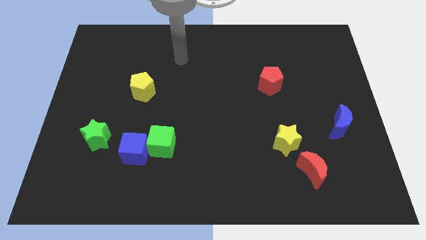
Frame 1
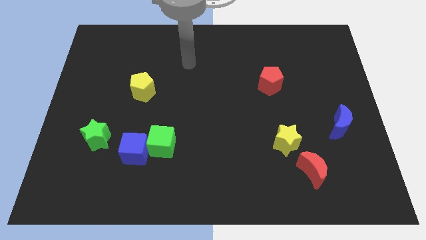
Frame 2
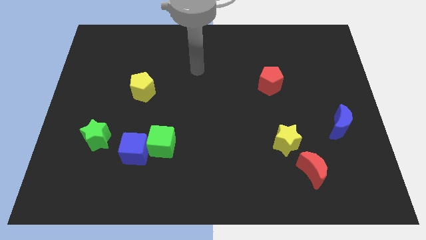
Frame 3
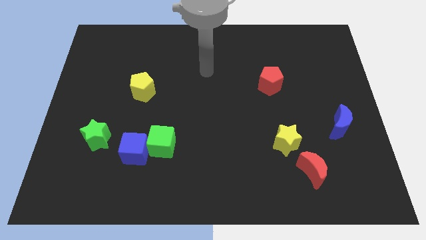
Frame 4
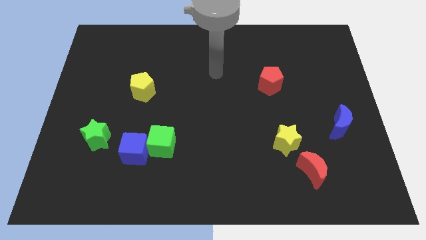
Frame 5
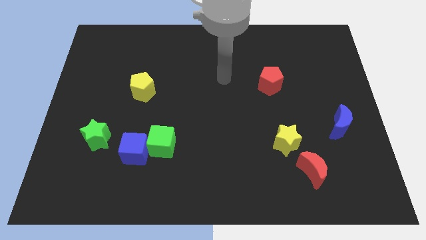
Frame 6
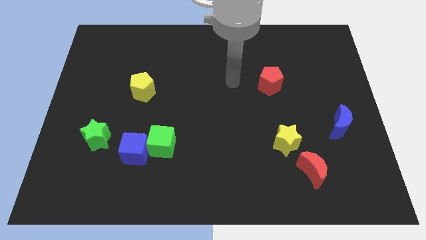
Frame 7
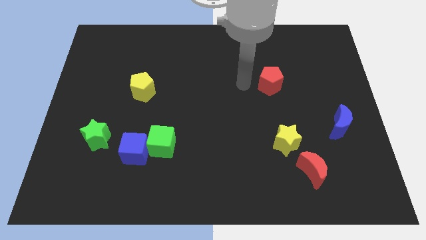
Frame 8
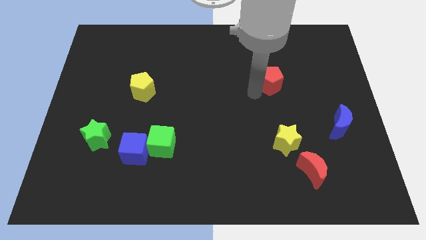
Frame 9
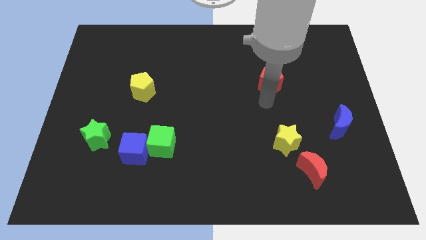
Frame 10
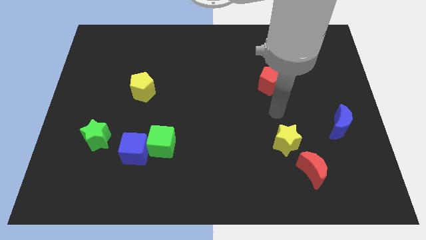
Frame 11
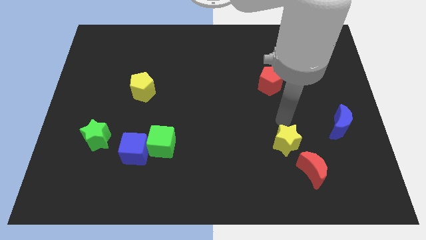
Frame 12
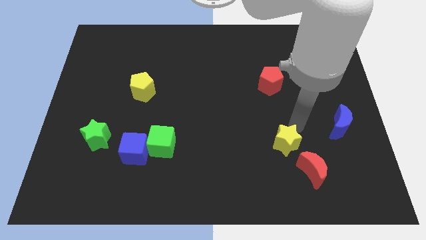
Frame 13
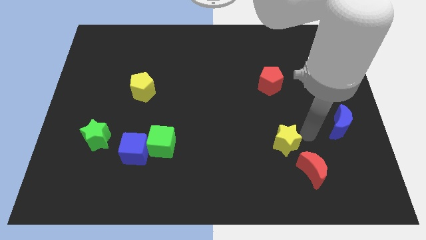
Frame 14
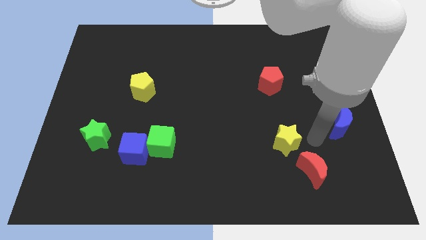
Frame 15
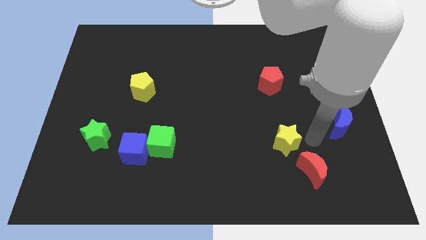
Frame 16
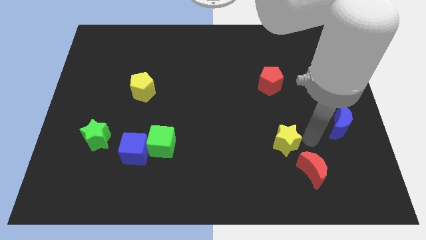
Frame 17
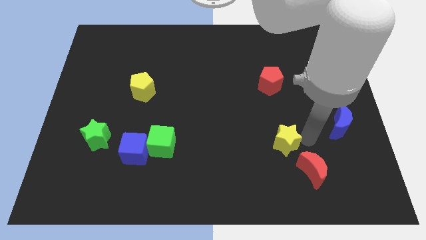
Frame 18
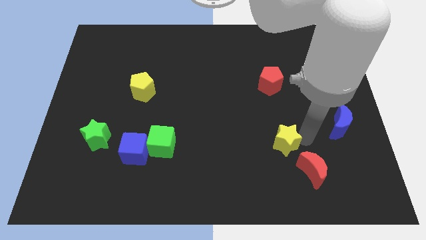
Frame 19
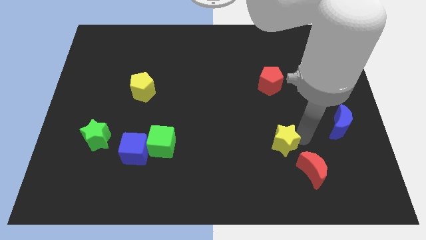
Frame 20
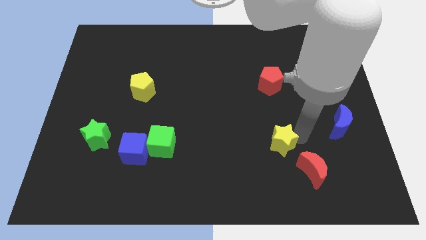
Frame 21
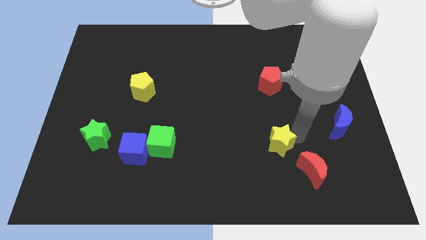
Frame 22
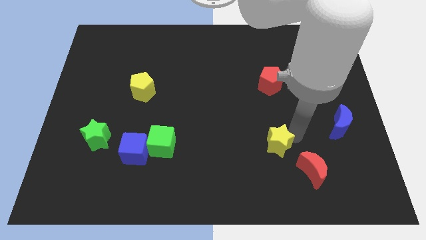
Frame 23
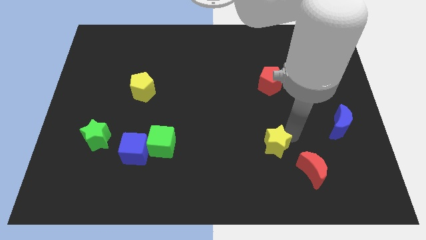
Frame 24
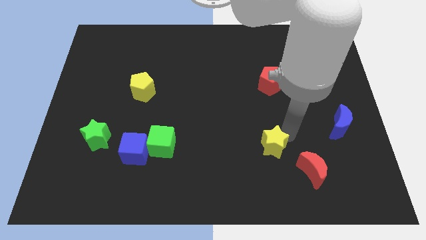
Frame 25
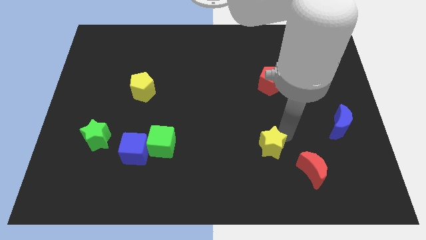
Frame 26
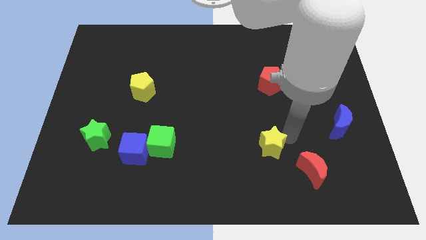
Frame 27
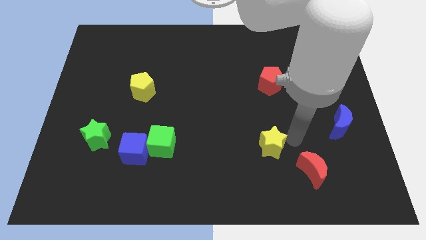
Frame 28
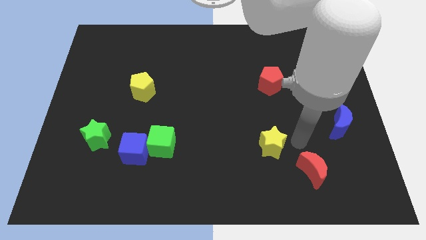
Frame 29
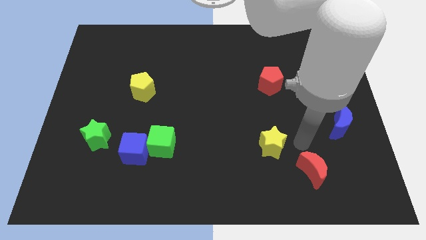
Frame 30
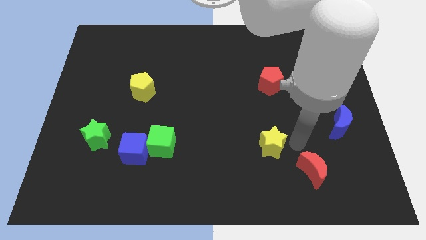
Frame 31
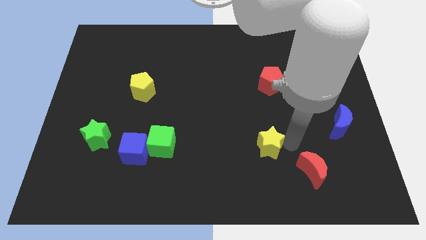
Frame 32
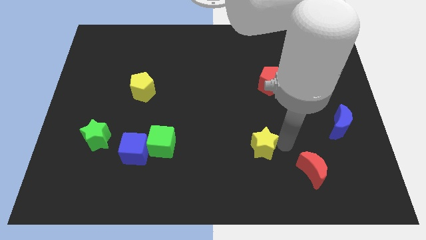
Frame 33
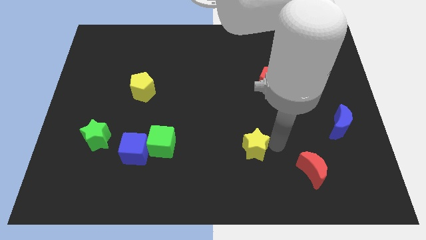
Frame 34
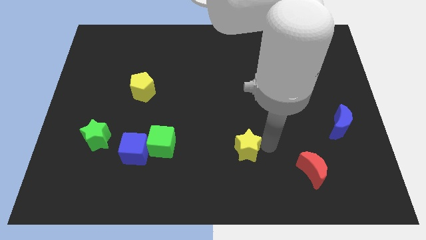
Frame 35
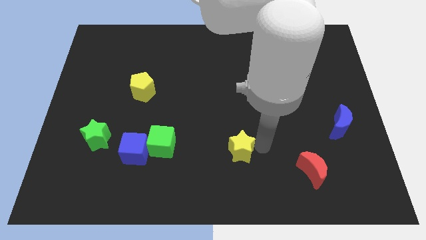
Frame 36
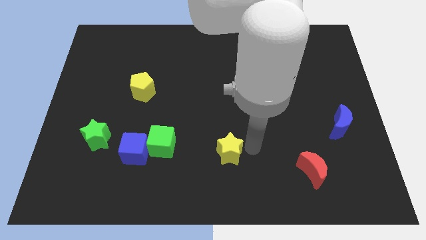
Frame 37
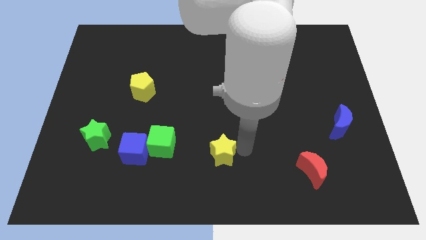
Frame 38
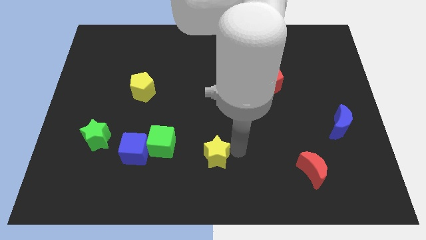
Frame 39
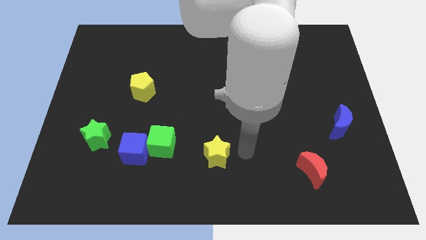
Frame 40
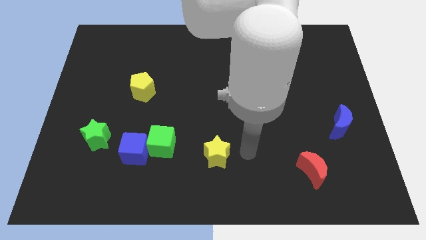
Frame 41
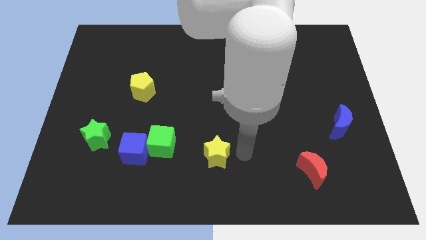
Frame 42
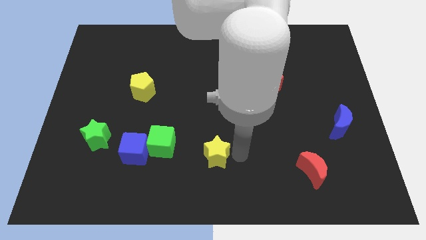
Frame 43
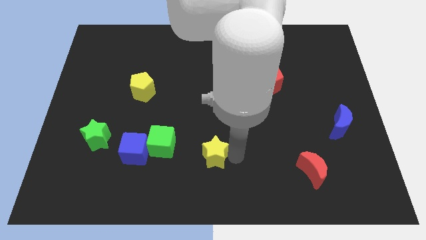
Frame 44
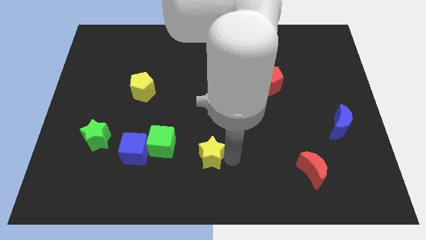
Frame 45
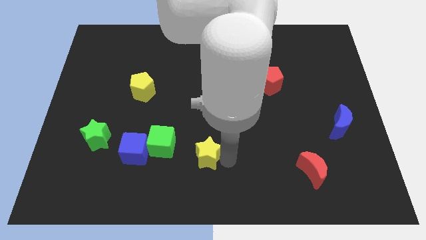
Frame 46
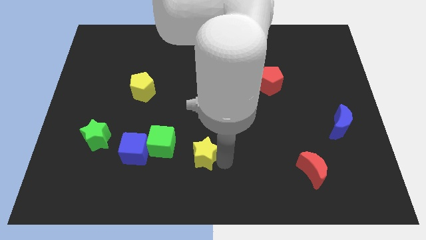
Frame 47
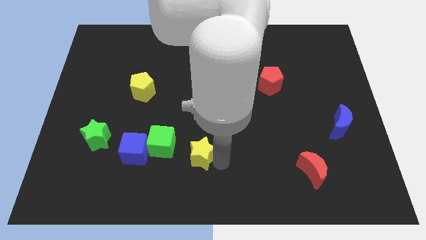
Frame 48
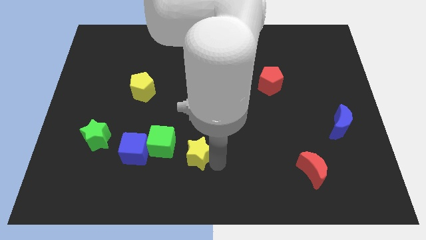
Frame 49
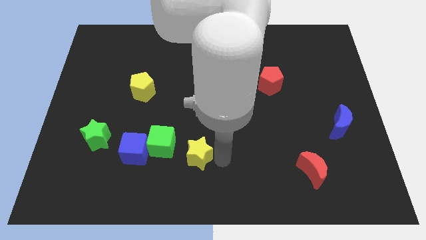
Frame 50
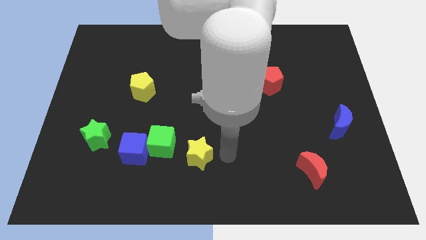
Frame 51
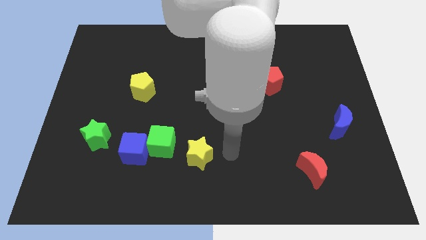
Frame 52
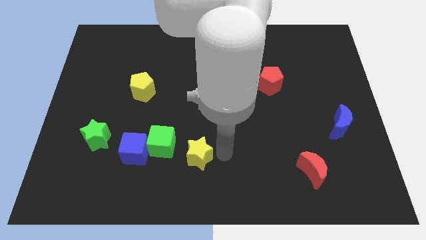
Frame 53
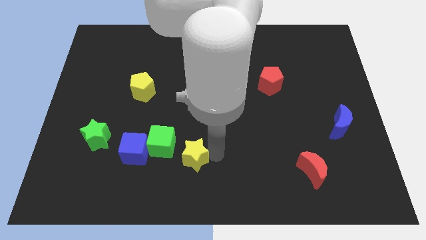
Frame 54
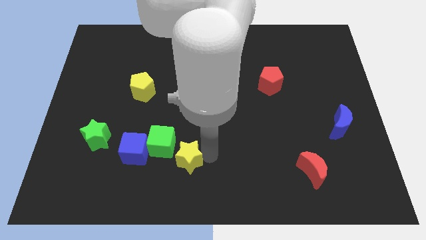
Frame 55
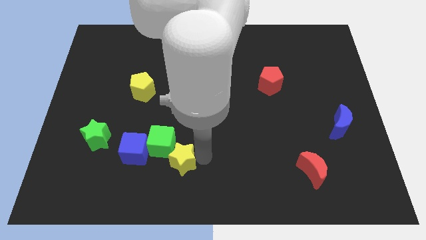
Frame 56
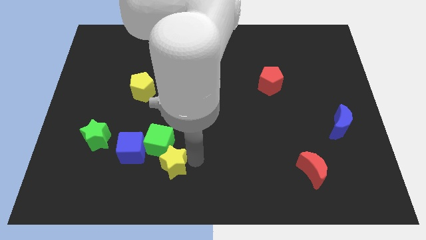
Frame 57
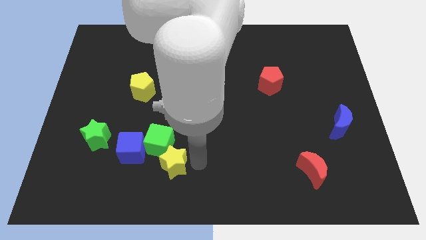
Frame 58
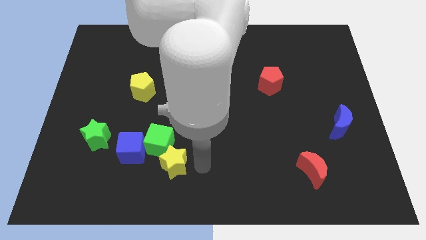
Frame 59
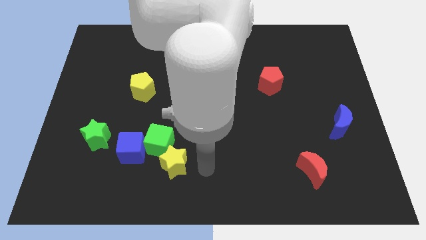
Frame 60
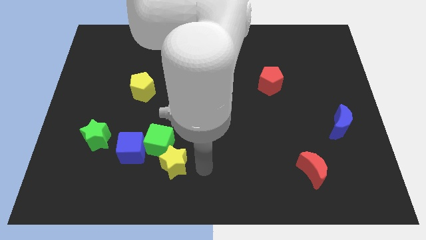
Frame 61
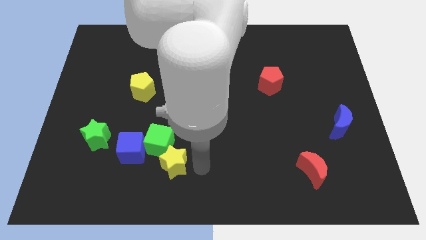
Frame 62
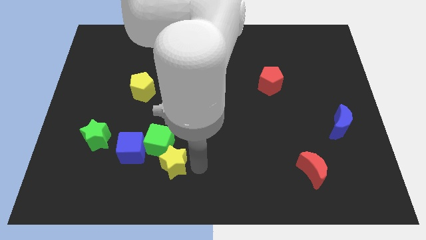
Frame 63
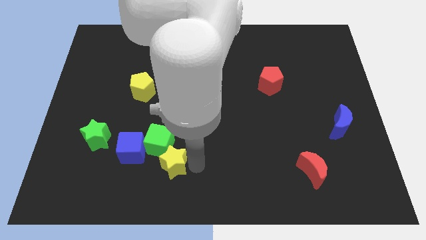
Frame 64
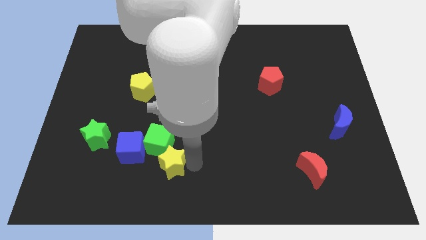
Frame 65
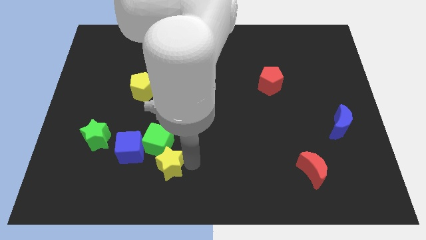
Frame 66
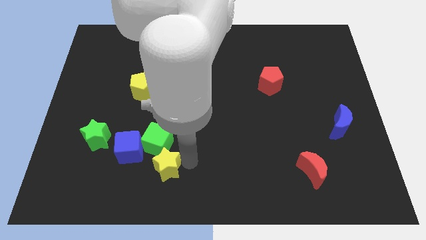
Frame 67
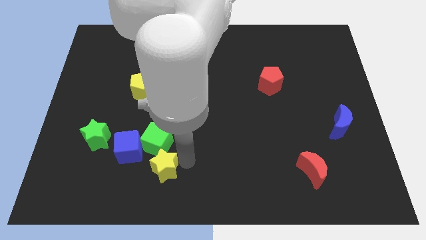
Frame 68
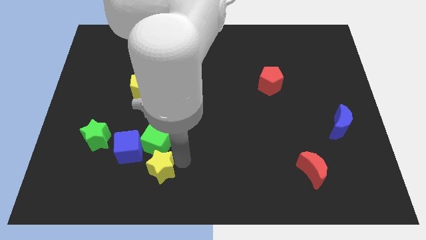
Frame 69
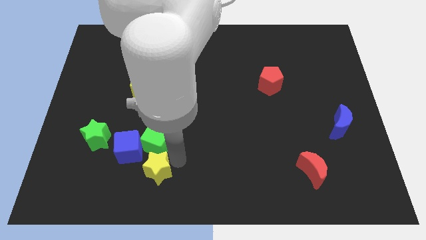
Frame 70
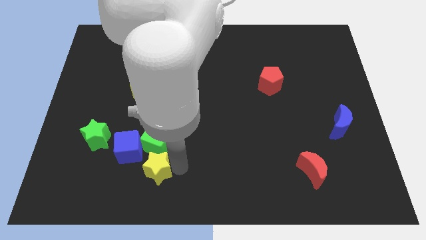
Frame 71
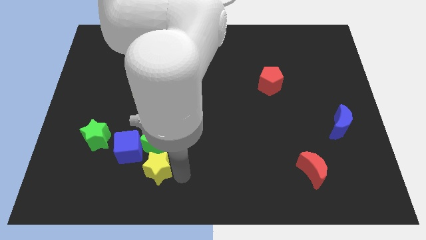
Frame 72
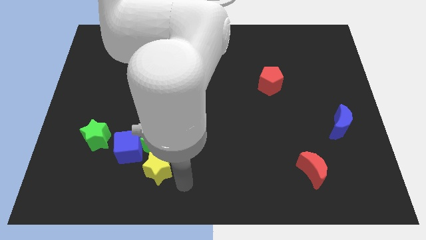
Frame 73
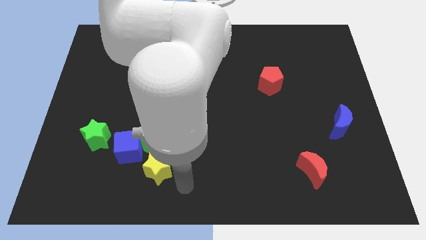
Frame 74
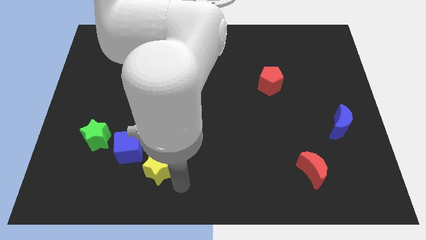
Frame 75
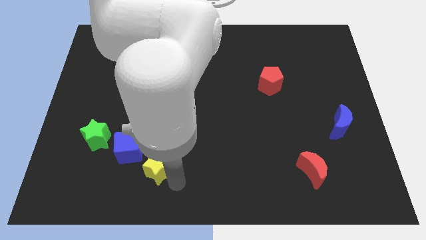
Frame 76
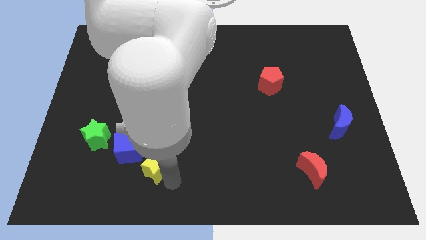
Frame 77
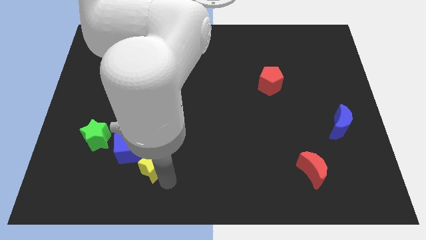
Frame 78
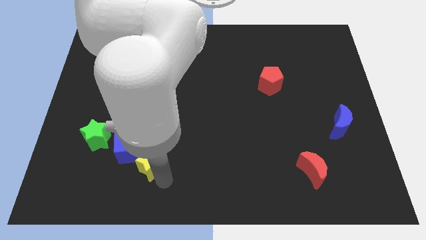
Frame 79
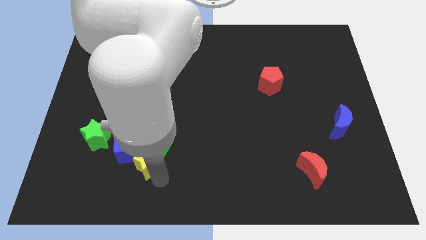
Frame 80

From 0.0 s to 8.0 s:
put the yellow star towards the blue cube
